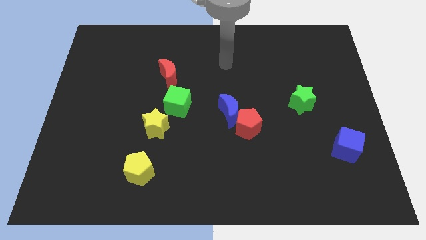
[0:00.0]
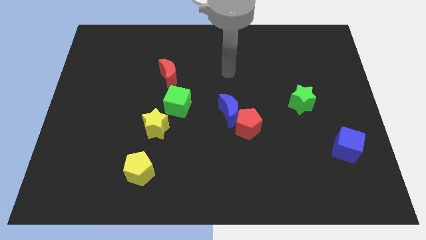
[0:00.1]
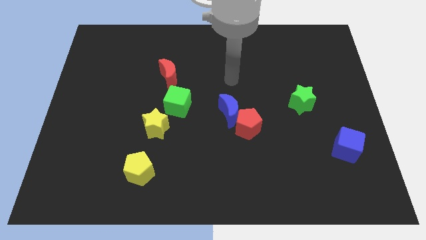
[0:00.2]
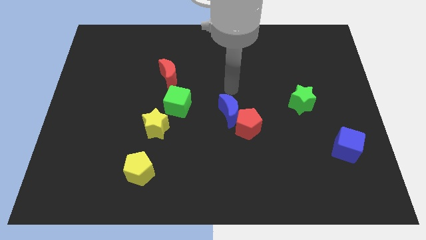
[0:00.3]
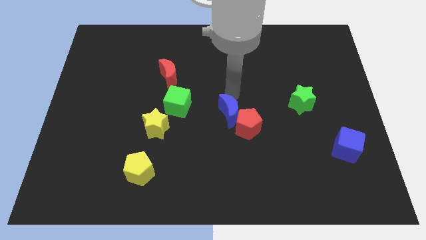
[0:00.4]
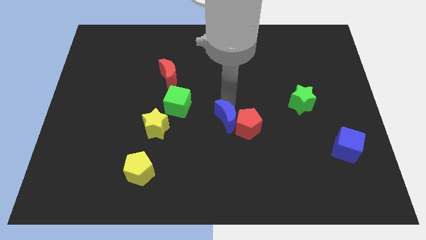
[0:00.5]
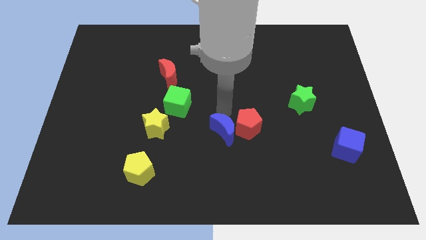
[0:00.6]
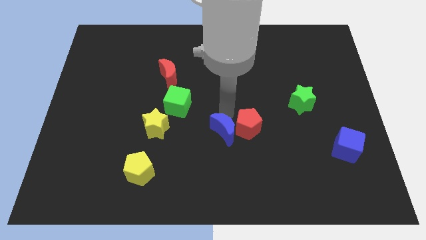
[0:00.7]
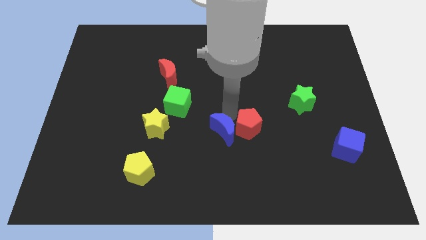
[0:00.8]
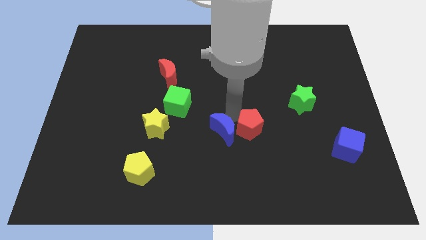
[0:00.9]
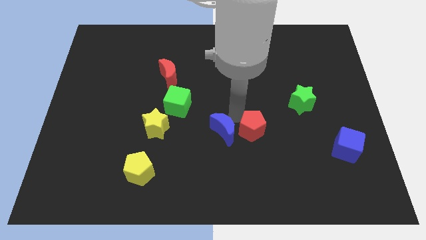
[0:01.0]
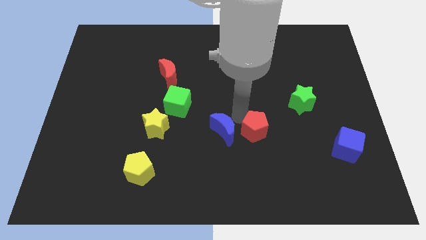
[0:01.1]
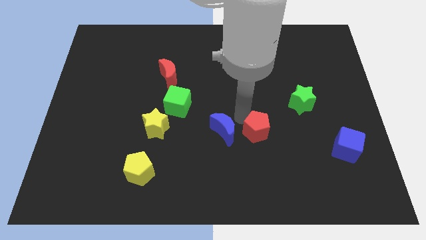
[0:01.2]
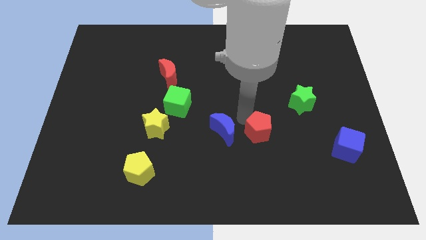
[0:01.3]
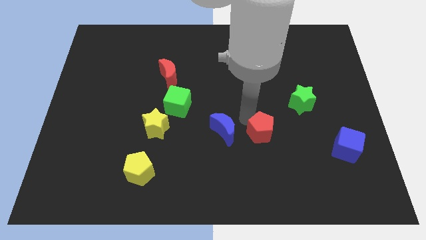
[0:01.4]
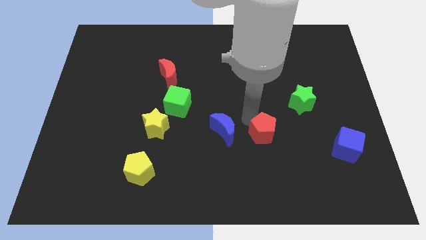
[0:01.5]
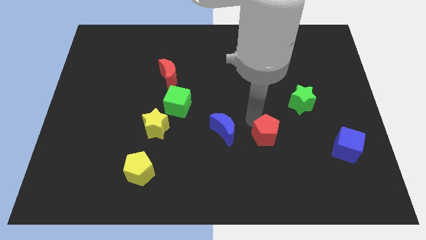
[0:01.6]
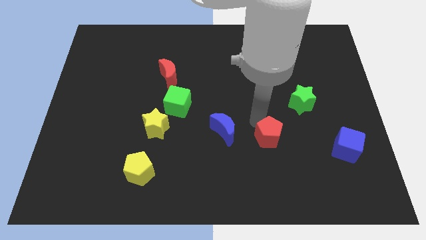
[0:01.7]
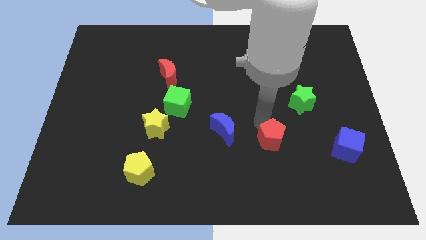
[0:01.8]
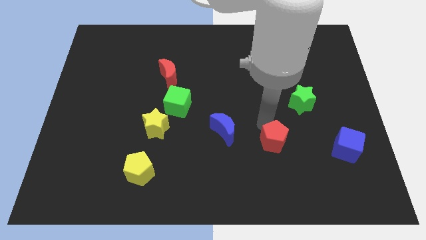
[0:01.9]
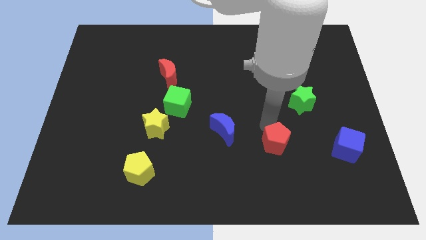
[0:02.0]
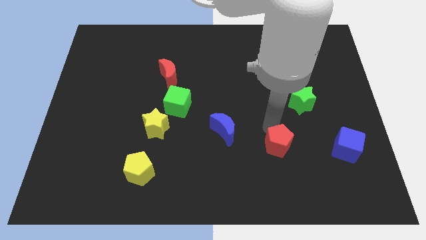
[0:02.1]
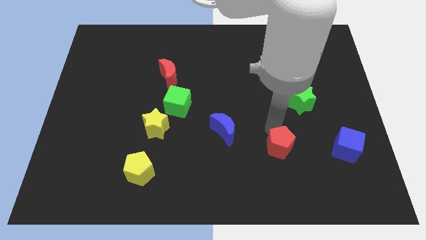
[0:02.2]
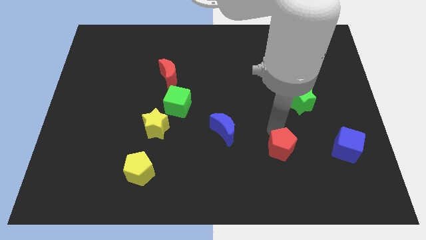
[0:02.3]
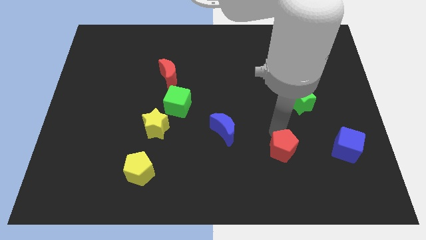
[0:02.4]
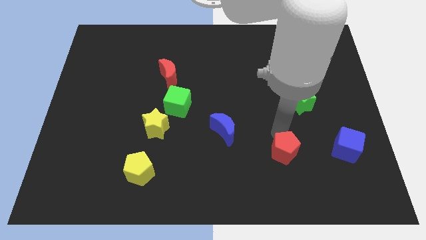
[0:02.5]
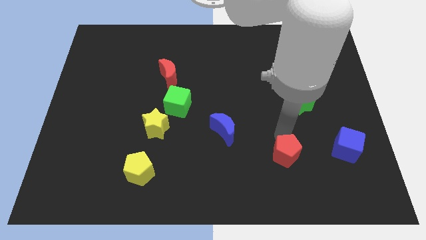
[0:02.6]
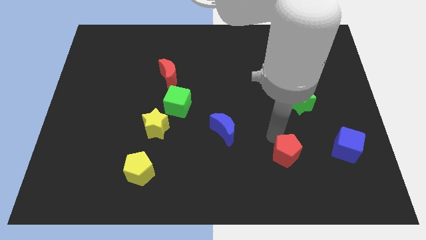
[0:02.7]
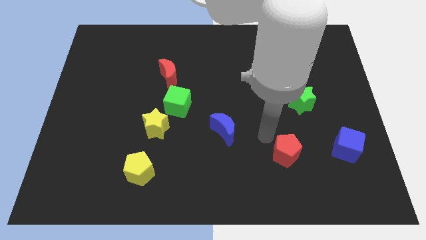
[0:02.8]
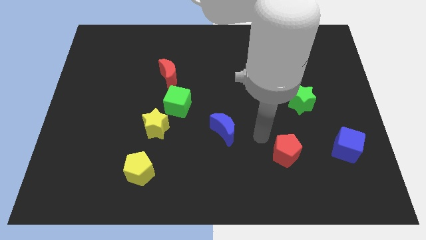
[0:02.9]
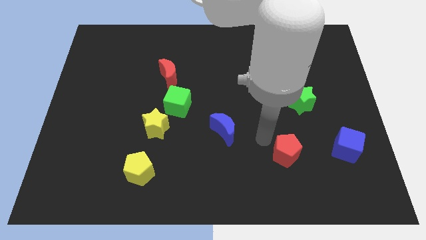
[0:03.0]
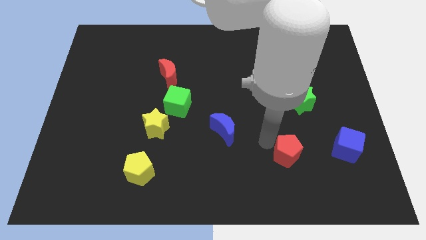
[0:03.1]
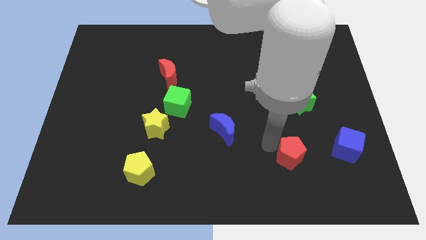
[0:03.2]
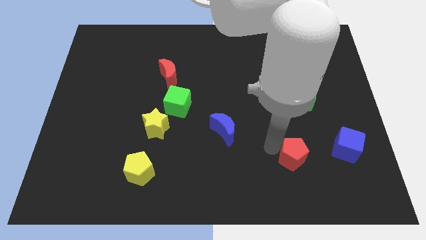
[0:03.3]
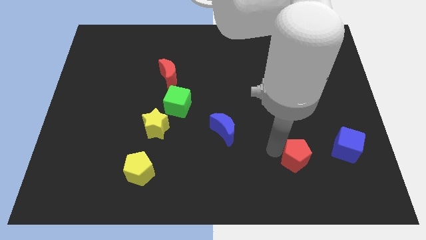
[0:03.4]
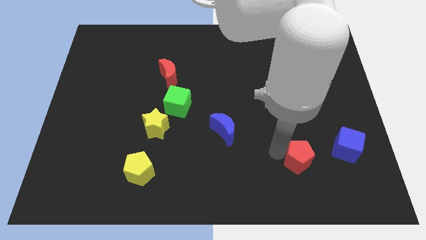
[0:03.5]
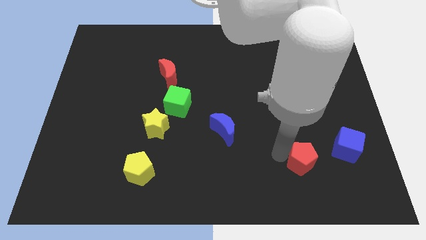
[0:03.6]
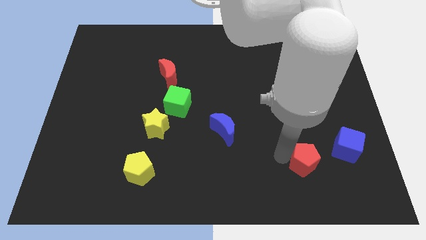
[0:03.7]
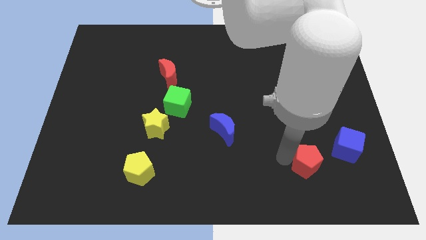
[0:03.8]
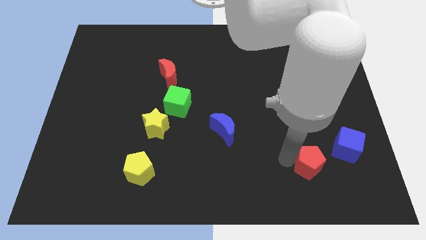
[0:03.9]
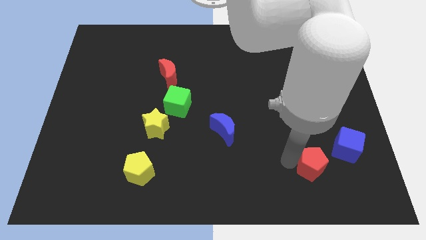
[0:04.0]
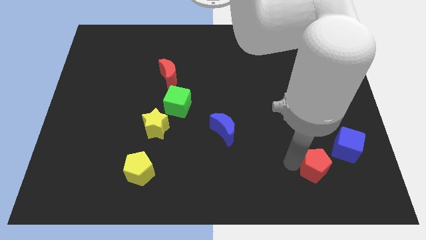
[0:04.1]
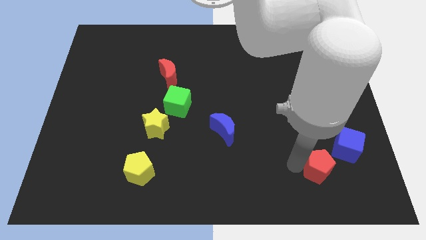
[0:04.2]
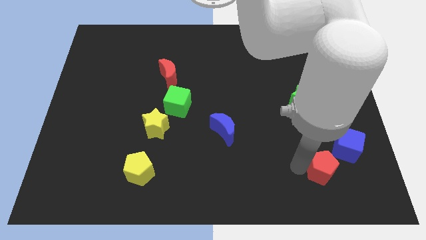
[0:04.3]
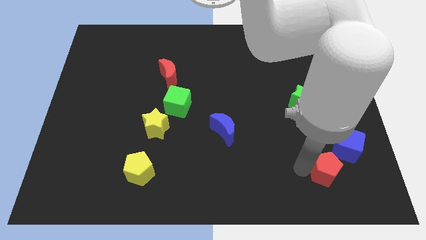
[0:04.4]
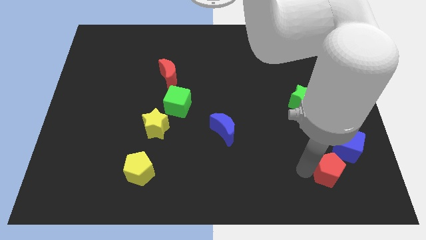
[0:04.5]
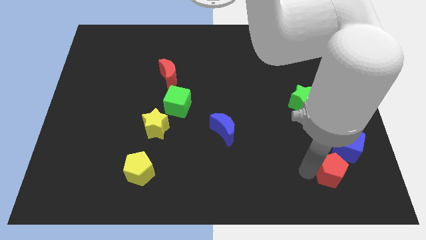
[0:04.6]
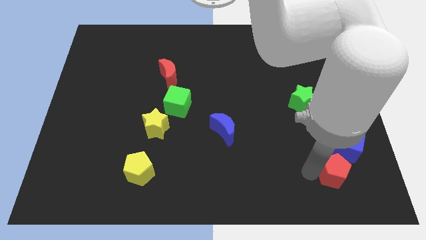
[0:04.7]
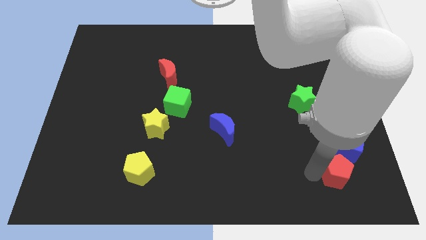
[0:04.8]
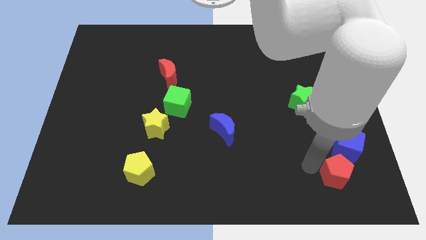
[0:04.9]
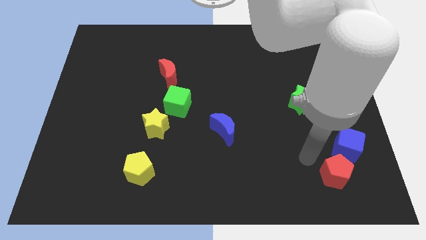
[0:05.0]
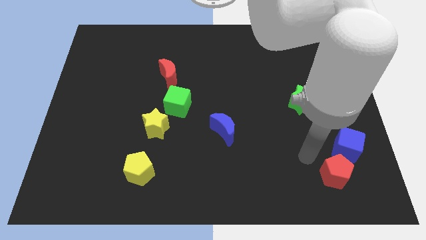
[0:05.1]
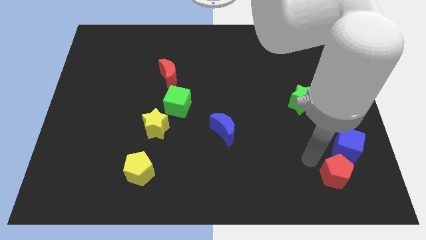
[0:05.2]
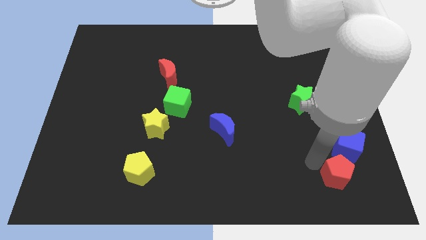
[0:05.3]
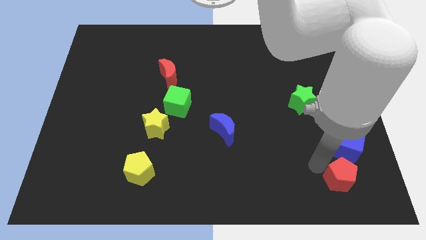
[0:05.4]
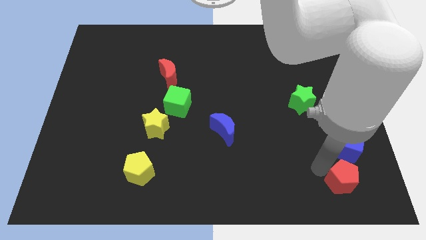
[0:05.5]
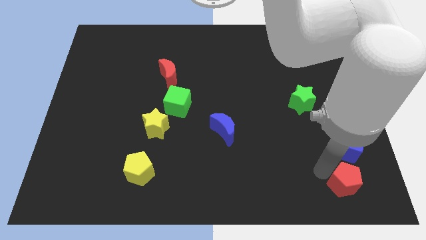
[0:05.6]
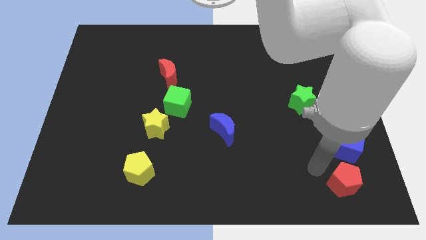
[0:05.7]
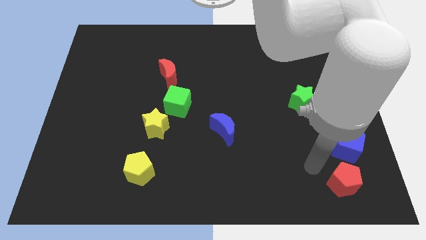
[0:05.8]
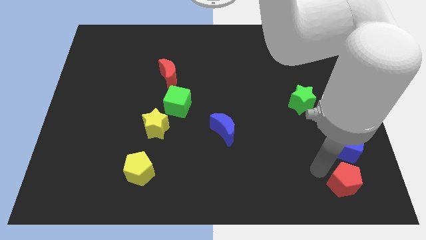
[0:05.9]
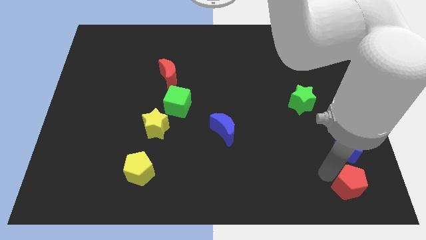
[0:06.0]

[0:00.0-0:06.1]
move the red pentagon to the bottom right of the board
